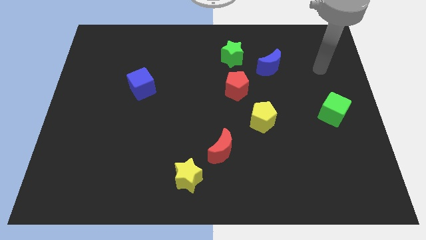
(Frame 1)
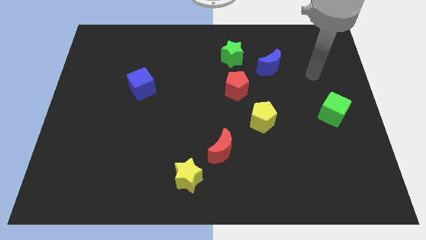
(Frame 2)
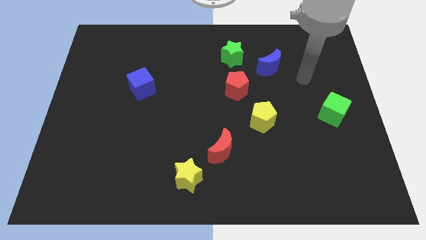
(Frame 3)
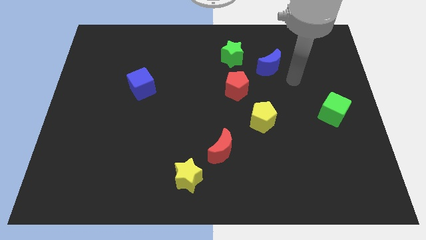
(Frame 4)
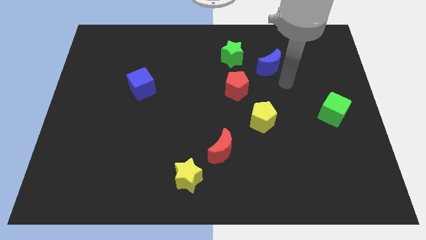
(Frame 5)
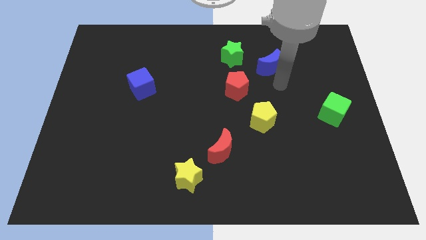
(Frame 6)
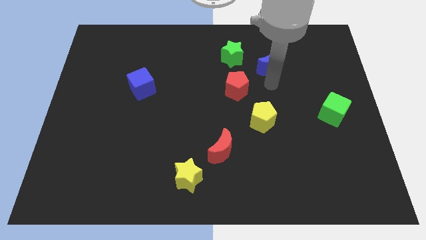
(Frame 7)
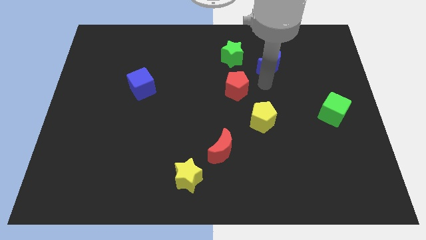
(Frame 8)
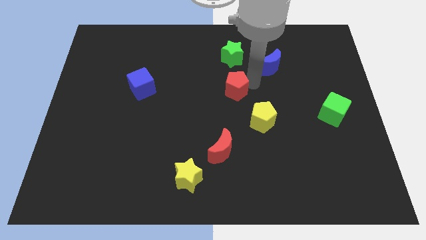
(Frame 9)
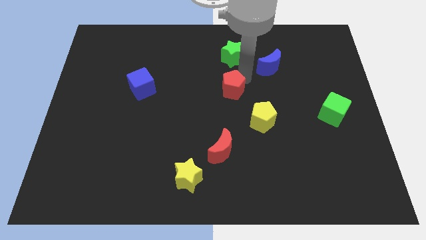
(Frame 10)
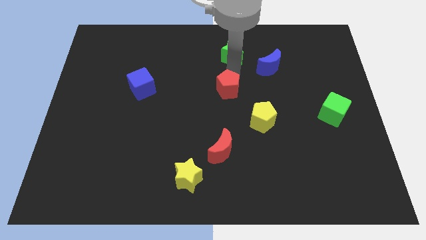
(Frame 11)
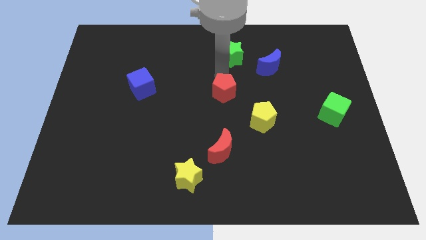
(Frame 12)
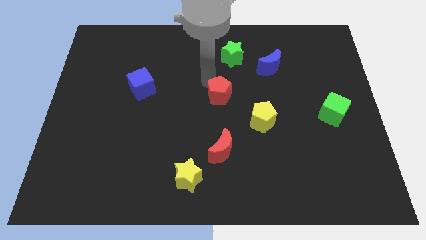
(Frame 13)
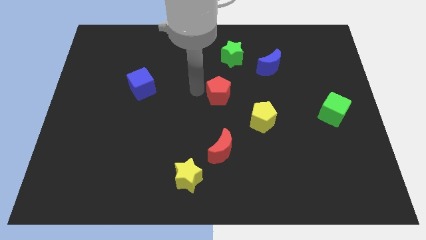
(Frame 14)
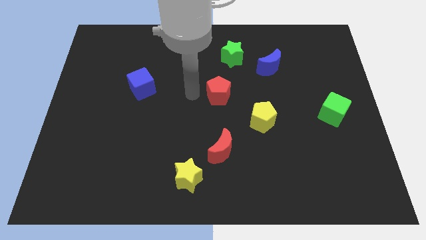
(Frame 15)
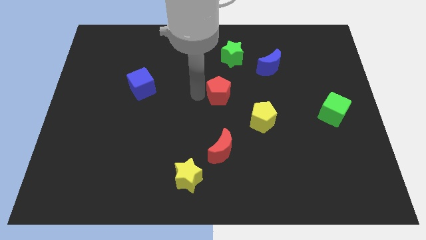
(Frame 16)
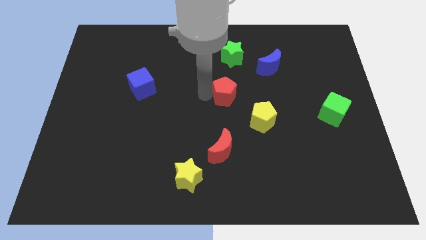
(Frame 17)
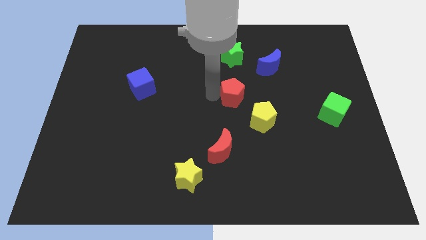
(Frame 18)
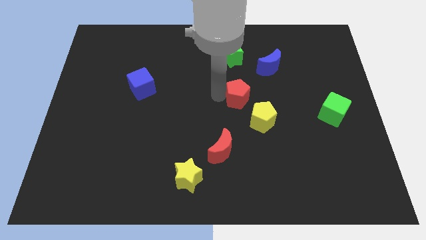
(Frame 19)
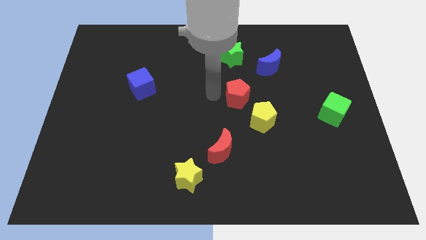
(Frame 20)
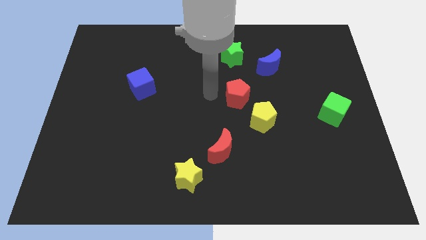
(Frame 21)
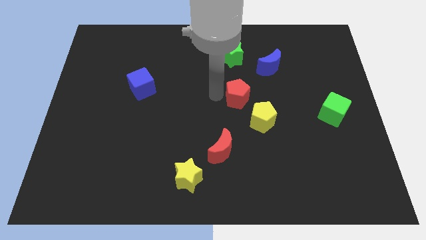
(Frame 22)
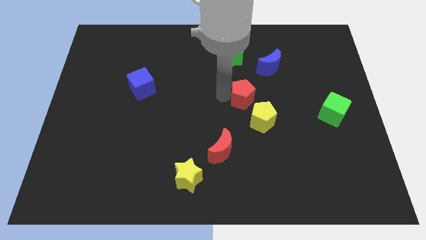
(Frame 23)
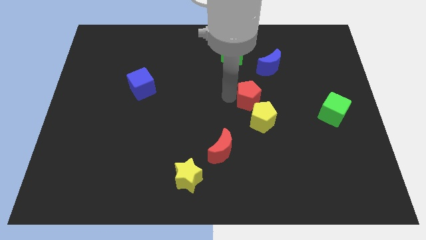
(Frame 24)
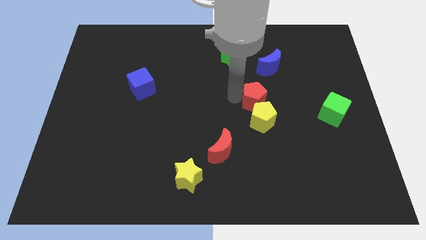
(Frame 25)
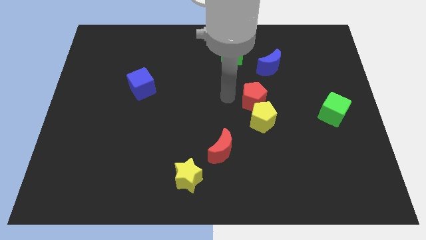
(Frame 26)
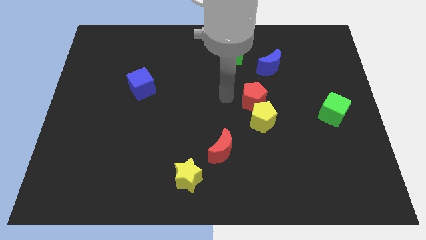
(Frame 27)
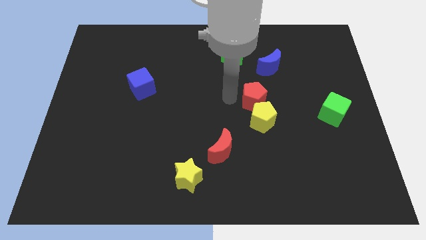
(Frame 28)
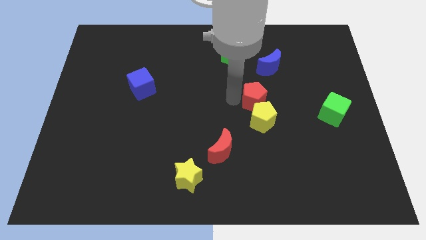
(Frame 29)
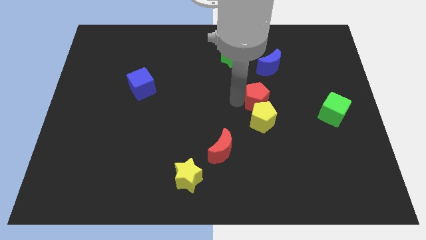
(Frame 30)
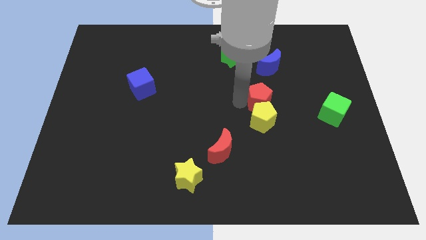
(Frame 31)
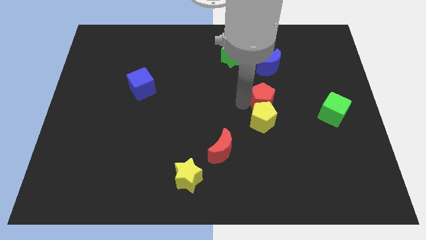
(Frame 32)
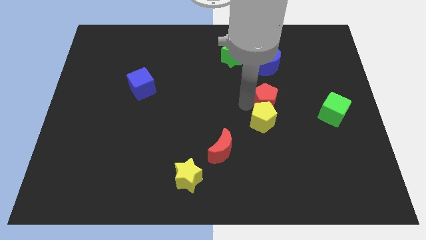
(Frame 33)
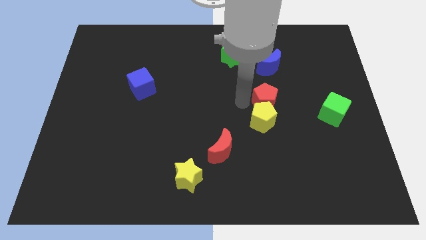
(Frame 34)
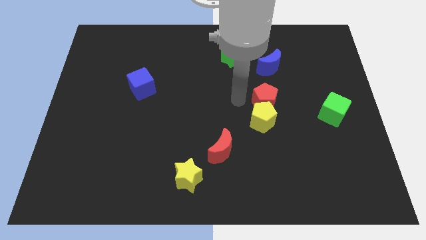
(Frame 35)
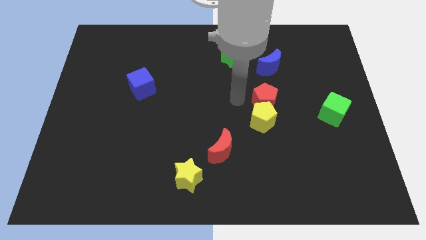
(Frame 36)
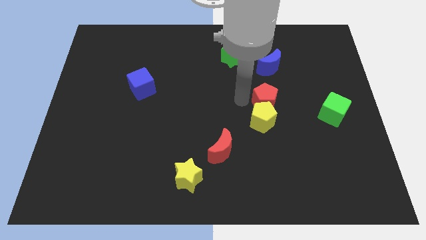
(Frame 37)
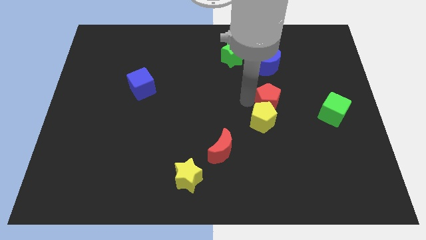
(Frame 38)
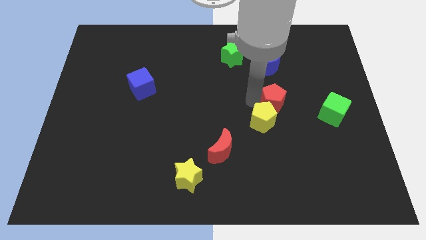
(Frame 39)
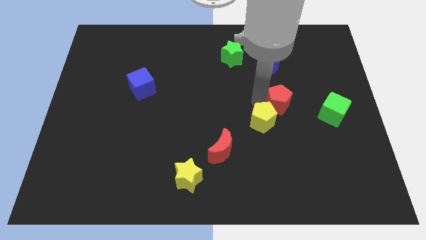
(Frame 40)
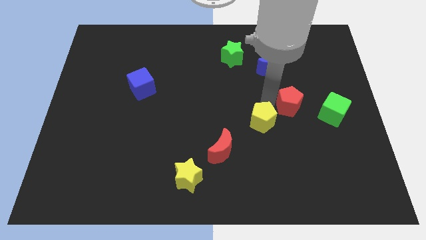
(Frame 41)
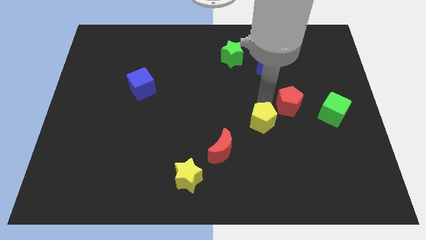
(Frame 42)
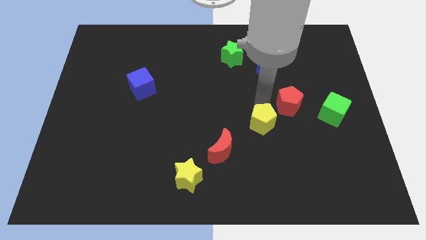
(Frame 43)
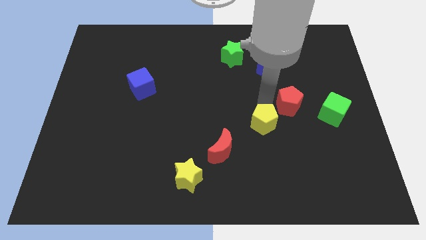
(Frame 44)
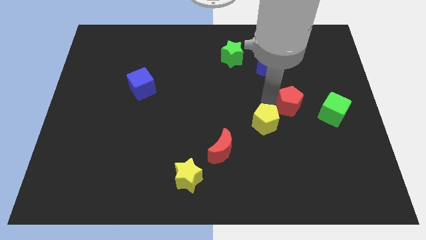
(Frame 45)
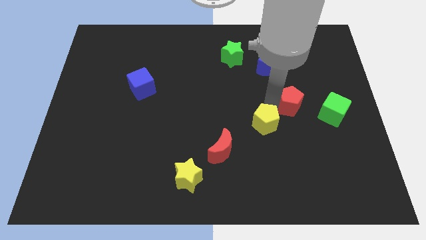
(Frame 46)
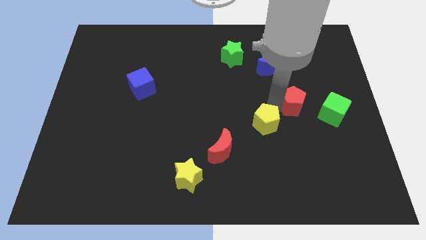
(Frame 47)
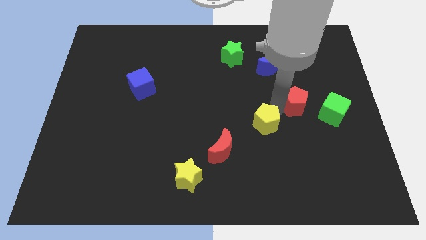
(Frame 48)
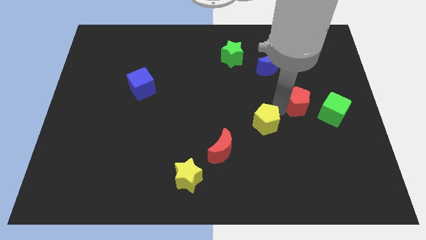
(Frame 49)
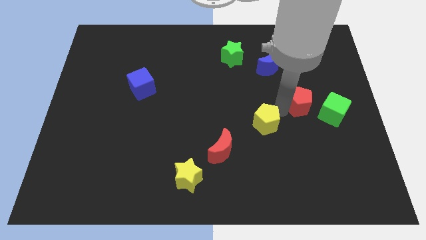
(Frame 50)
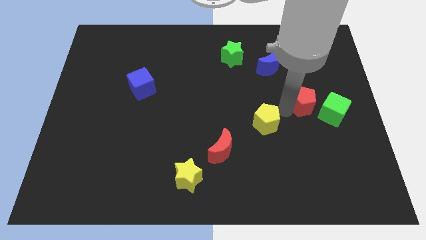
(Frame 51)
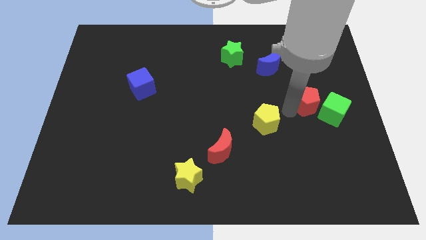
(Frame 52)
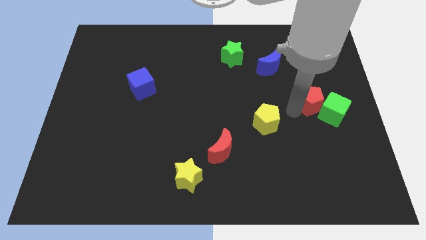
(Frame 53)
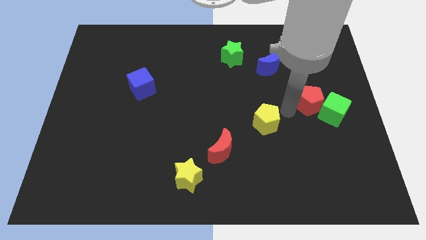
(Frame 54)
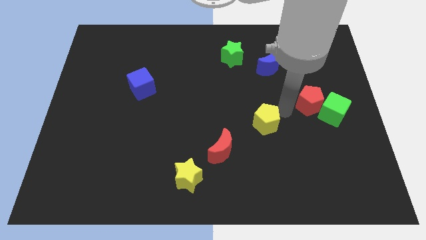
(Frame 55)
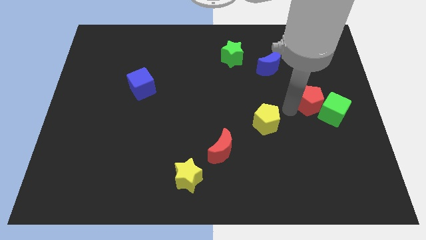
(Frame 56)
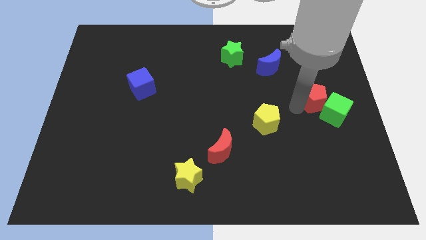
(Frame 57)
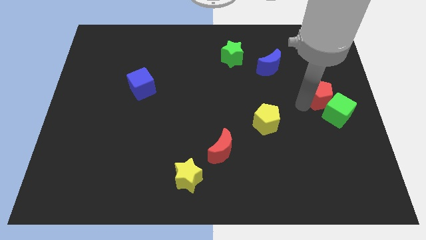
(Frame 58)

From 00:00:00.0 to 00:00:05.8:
put the red pentagon to the right side
